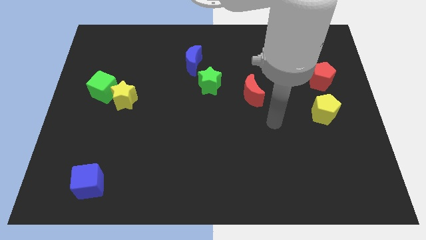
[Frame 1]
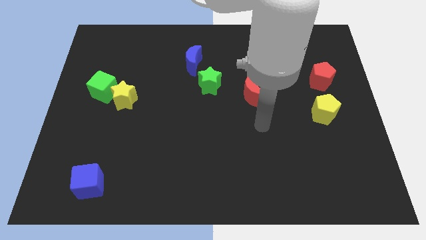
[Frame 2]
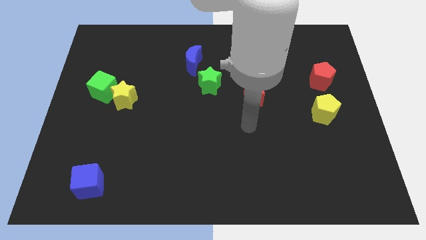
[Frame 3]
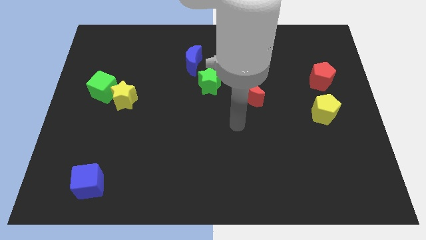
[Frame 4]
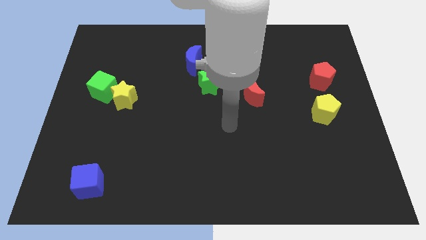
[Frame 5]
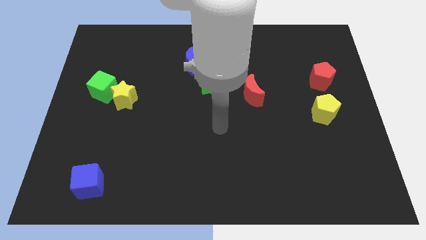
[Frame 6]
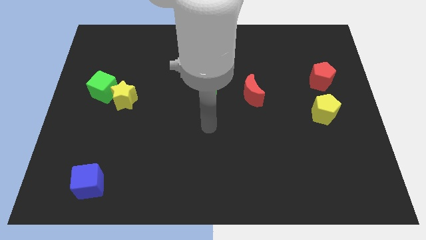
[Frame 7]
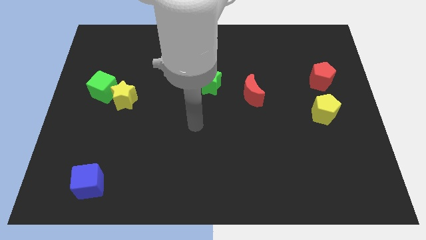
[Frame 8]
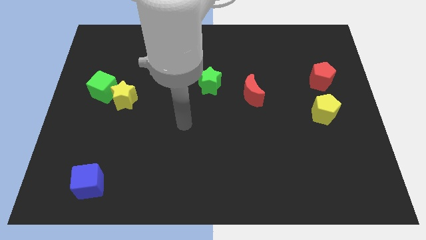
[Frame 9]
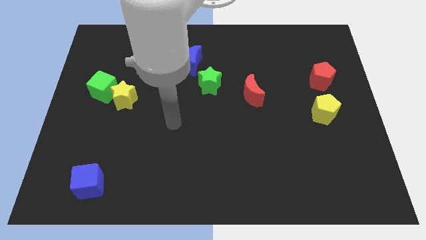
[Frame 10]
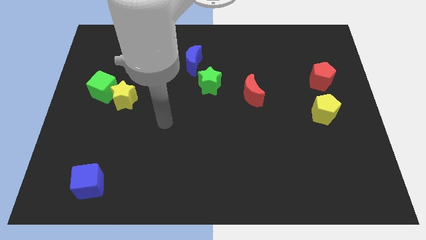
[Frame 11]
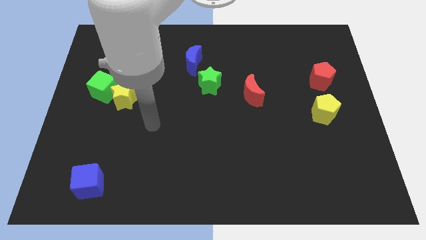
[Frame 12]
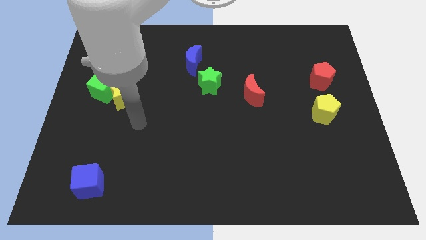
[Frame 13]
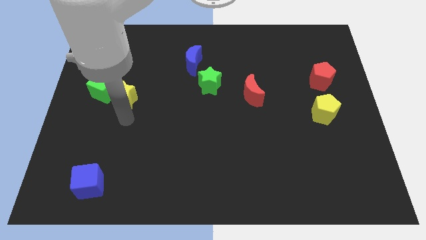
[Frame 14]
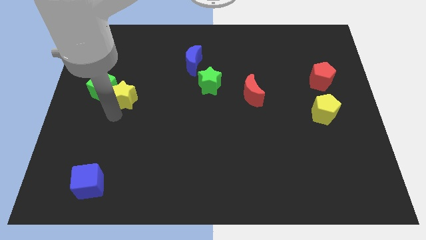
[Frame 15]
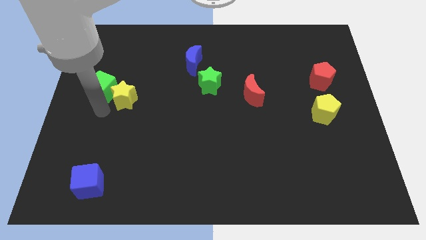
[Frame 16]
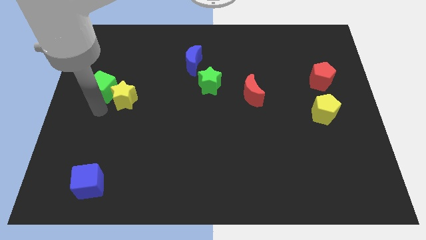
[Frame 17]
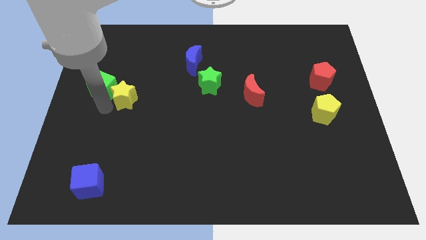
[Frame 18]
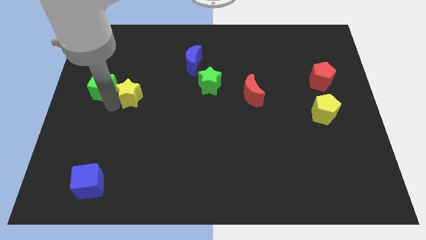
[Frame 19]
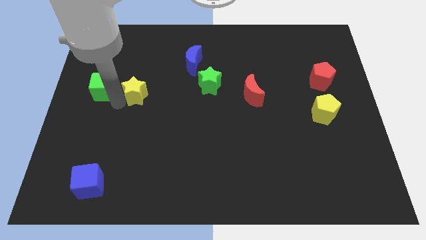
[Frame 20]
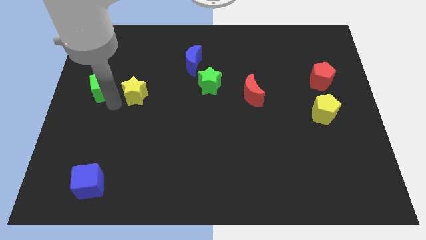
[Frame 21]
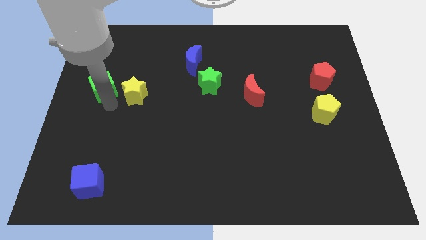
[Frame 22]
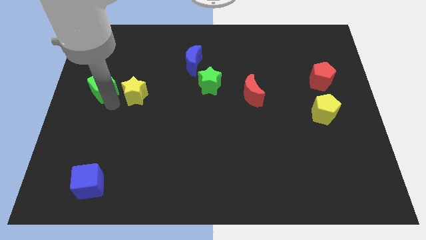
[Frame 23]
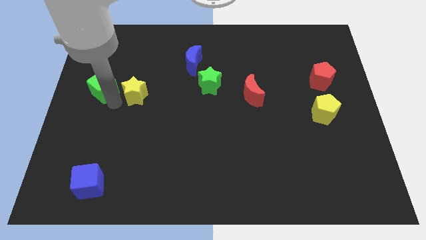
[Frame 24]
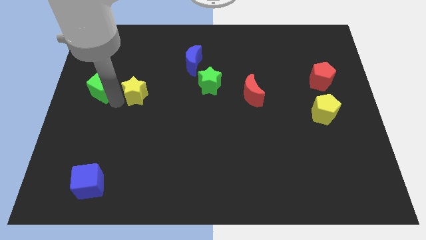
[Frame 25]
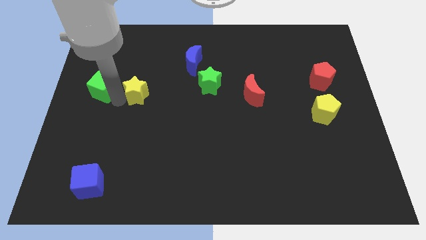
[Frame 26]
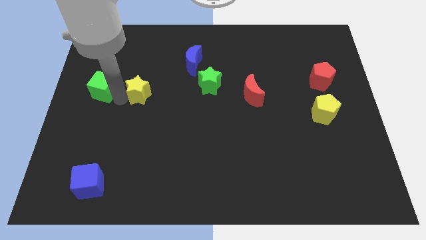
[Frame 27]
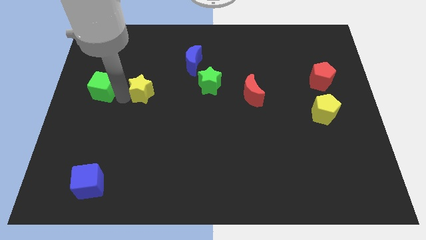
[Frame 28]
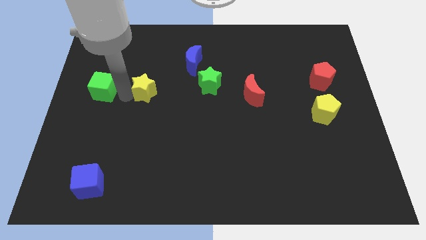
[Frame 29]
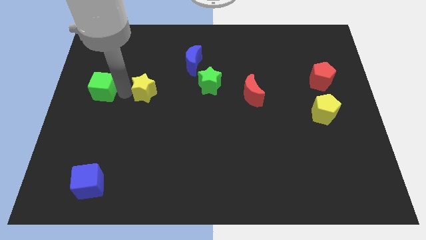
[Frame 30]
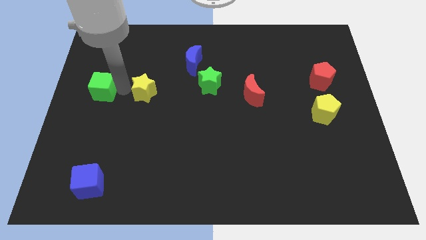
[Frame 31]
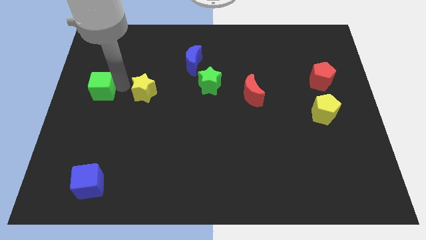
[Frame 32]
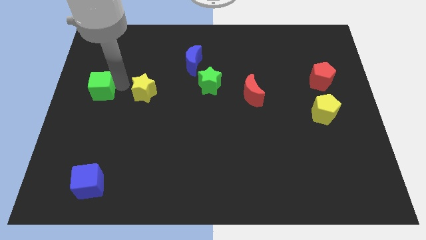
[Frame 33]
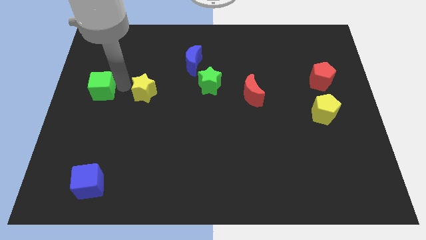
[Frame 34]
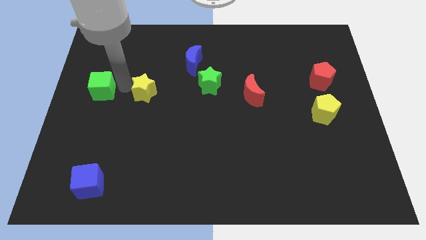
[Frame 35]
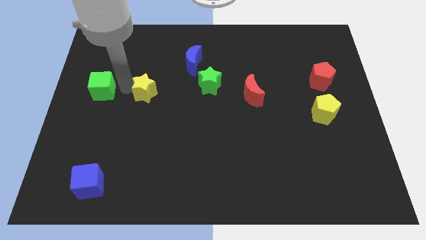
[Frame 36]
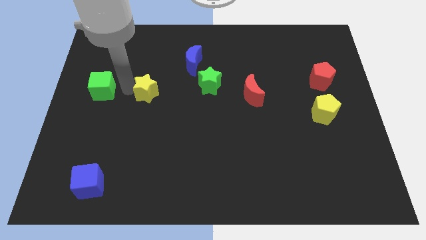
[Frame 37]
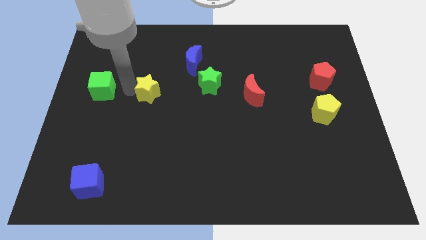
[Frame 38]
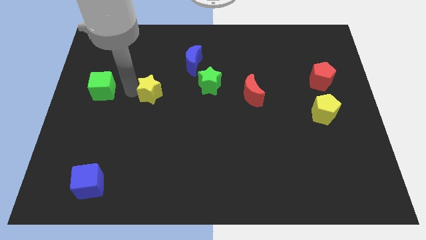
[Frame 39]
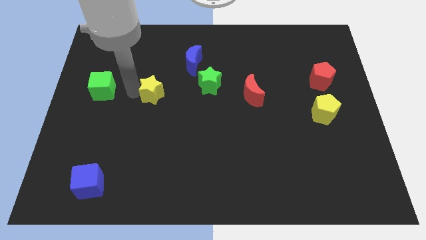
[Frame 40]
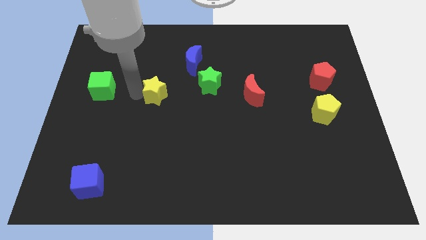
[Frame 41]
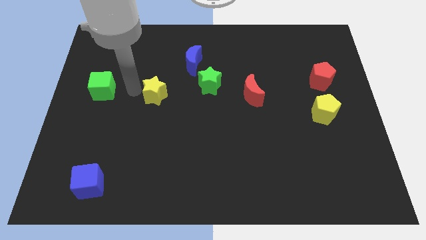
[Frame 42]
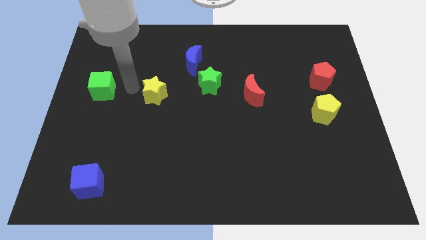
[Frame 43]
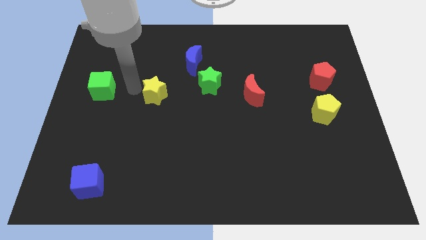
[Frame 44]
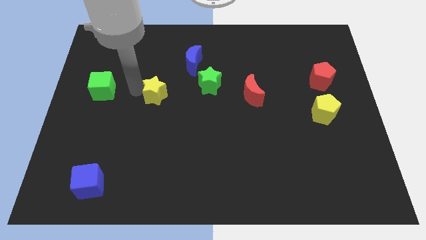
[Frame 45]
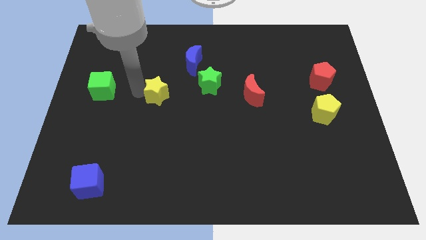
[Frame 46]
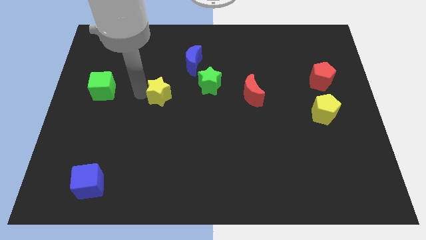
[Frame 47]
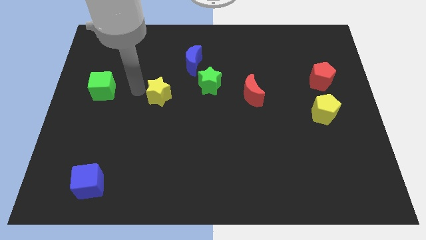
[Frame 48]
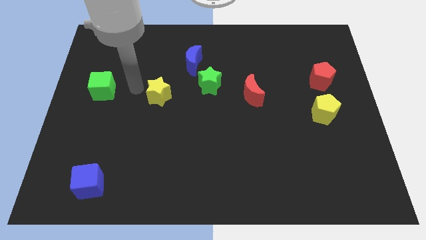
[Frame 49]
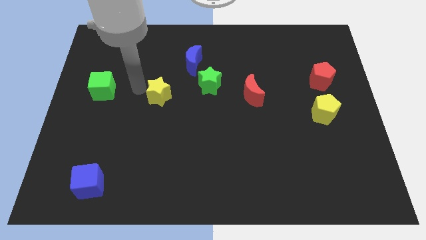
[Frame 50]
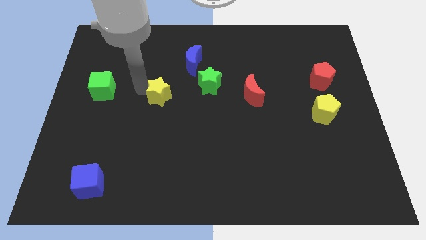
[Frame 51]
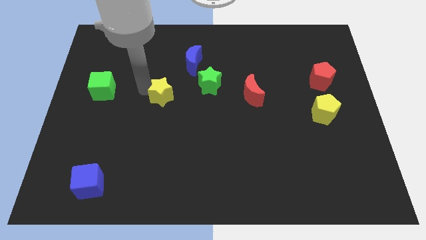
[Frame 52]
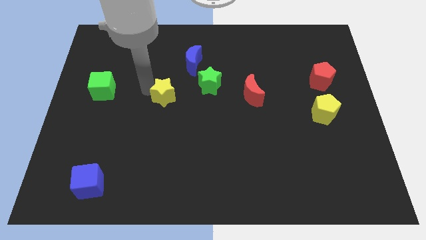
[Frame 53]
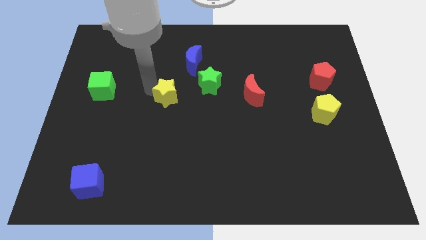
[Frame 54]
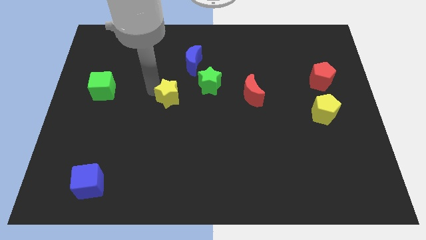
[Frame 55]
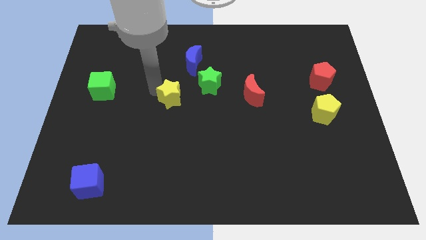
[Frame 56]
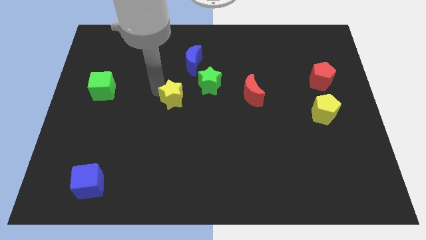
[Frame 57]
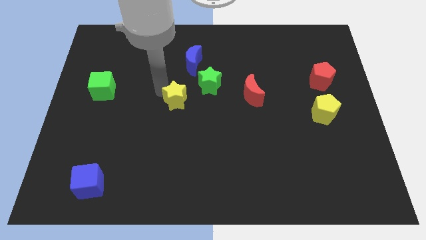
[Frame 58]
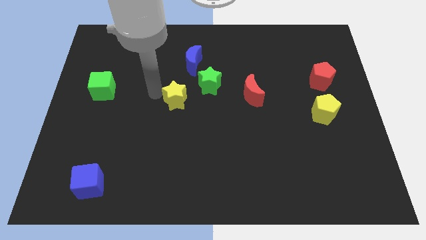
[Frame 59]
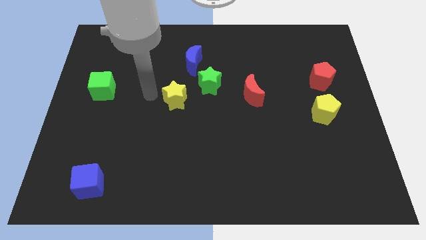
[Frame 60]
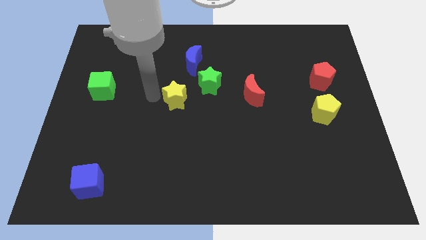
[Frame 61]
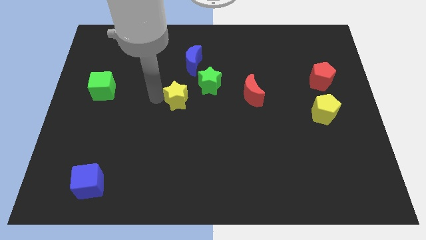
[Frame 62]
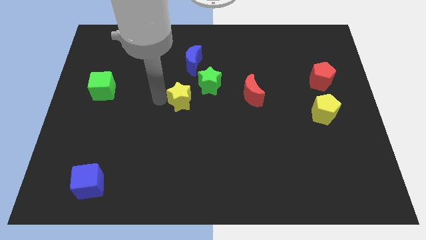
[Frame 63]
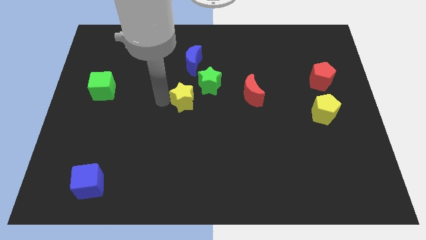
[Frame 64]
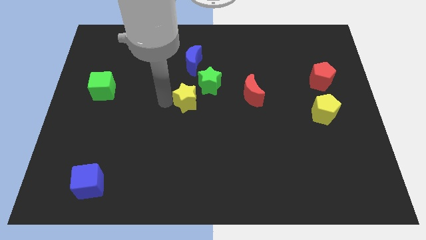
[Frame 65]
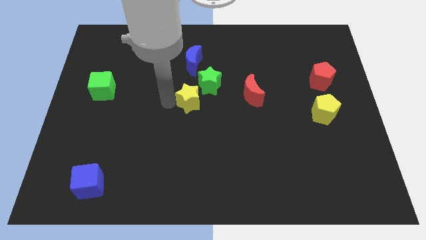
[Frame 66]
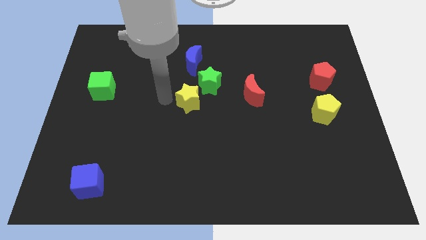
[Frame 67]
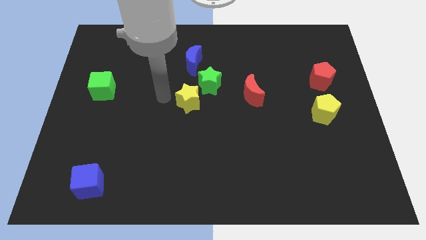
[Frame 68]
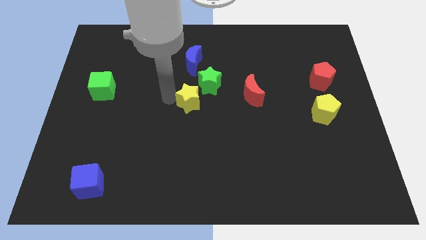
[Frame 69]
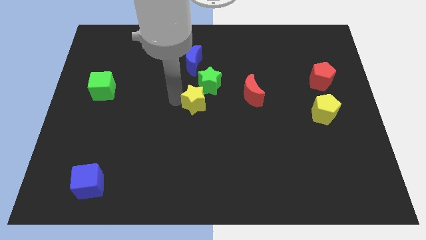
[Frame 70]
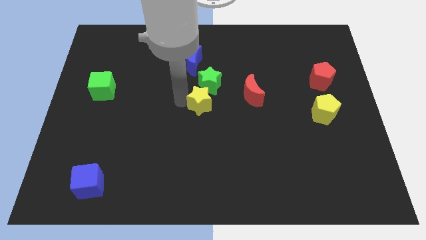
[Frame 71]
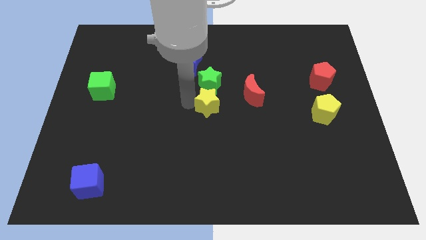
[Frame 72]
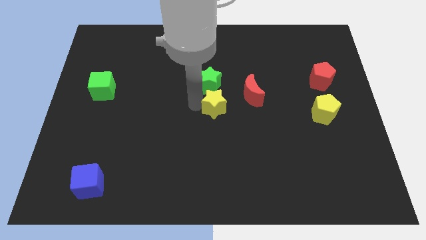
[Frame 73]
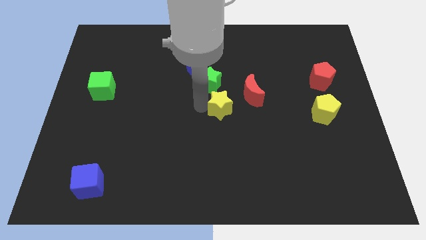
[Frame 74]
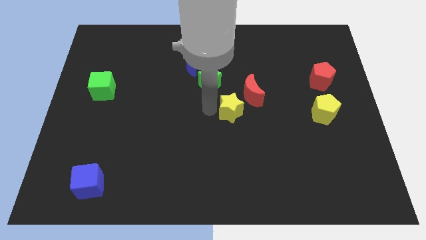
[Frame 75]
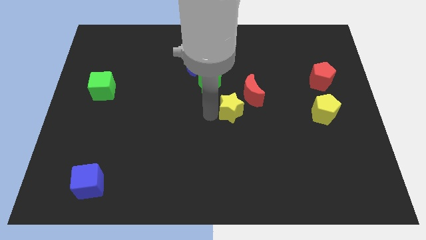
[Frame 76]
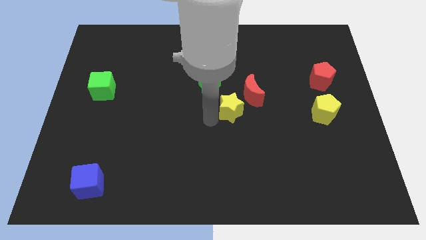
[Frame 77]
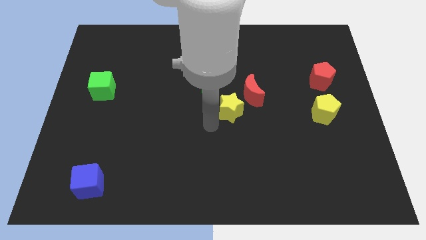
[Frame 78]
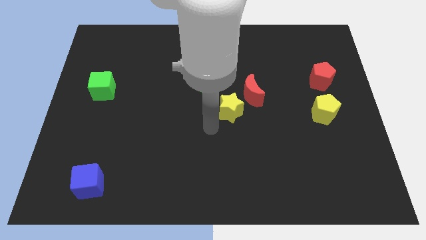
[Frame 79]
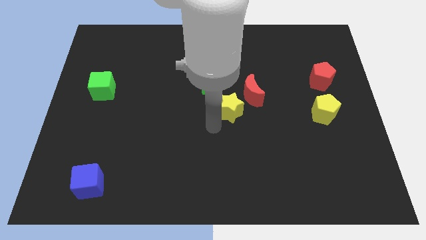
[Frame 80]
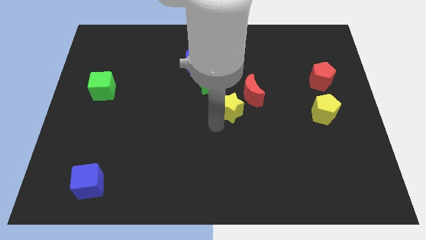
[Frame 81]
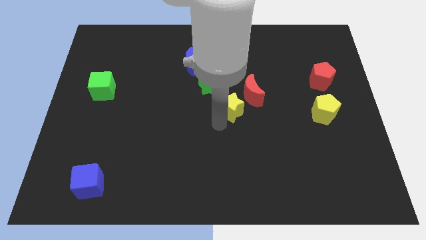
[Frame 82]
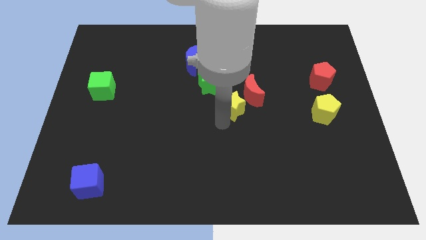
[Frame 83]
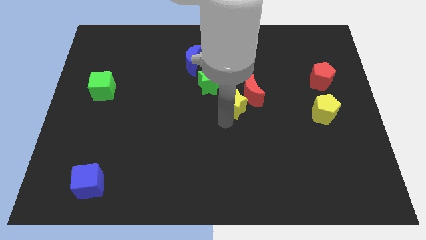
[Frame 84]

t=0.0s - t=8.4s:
move the yellow star to the red moon
